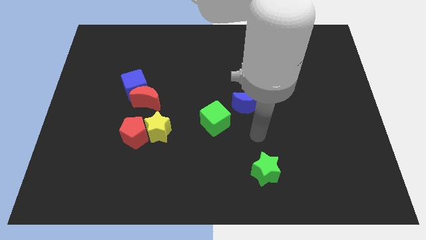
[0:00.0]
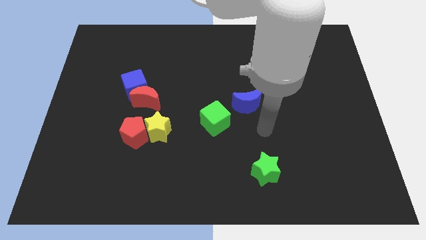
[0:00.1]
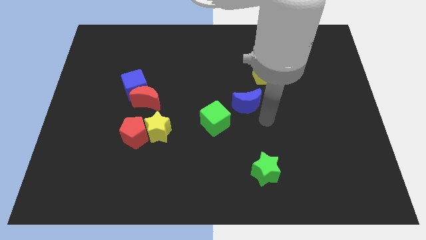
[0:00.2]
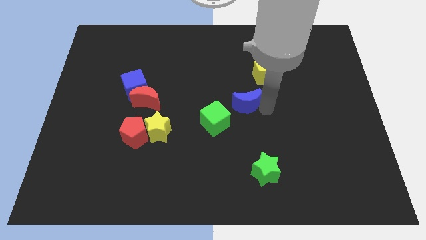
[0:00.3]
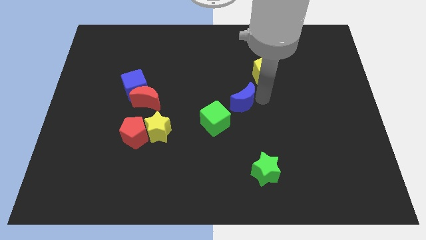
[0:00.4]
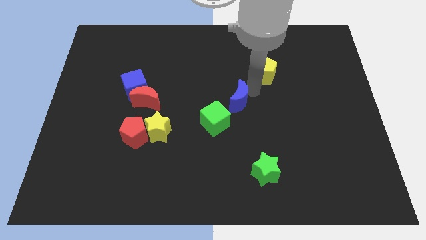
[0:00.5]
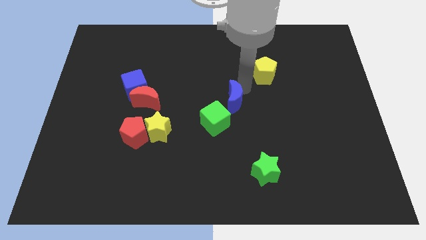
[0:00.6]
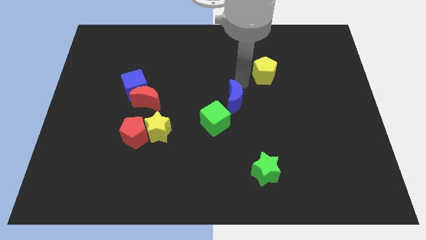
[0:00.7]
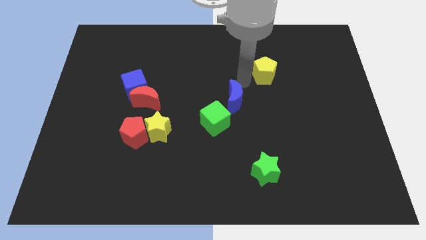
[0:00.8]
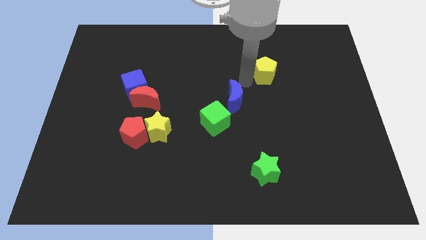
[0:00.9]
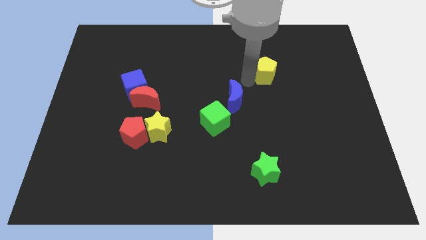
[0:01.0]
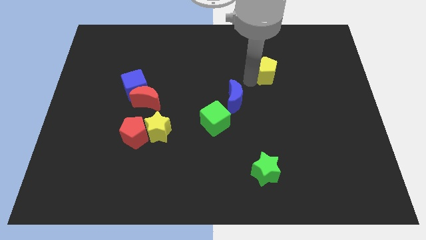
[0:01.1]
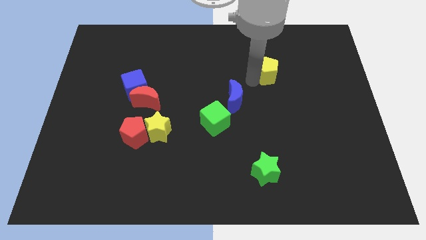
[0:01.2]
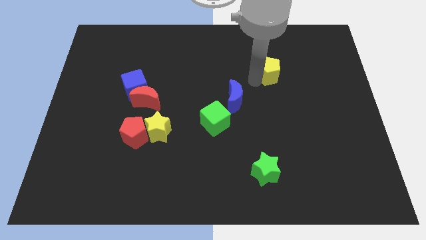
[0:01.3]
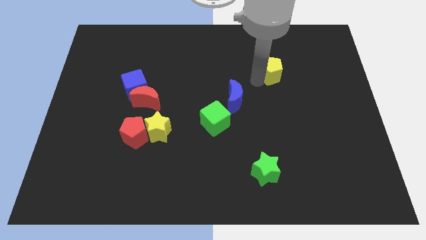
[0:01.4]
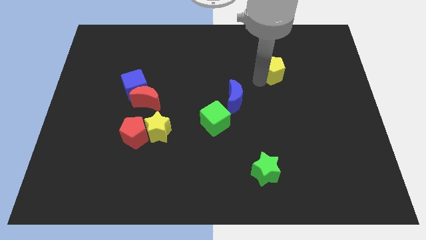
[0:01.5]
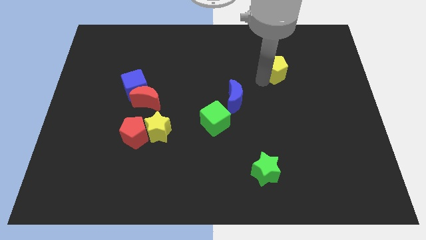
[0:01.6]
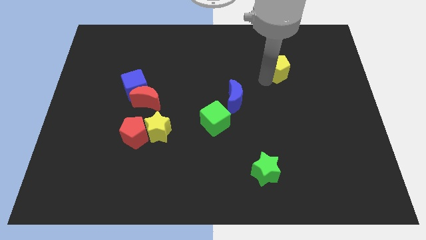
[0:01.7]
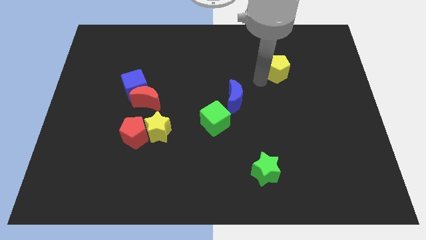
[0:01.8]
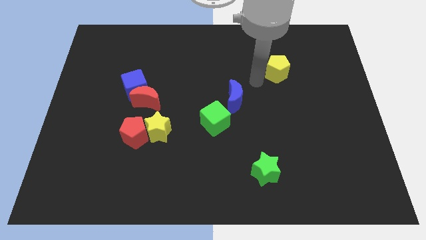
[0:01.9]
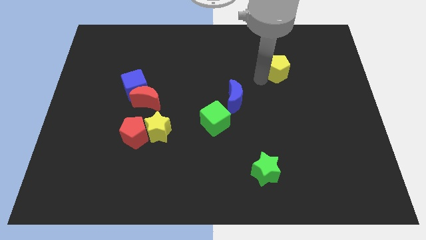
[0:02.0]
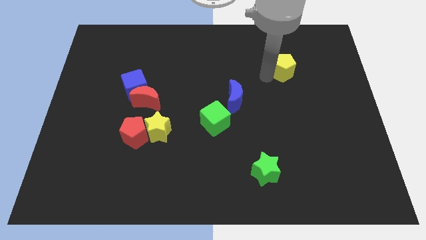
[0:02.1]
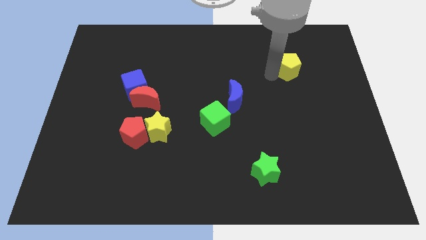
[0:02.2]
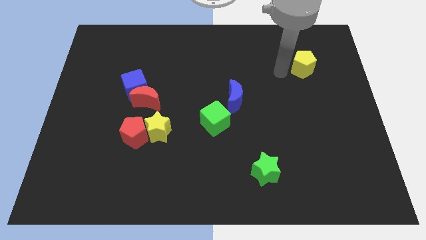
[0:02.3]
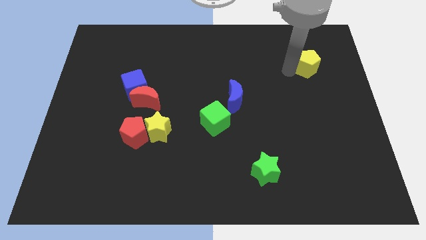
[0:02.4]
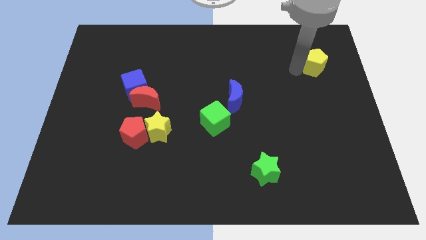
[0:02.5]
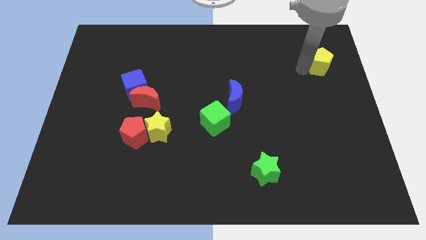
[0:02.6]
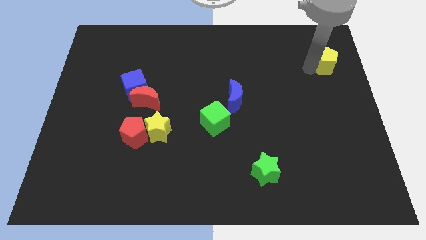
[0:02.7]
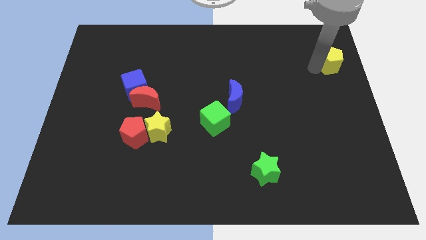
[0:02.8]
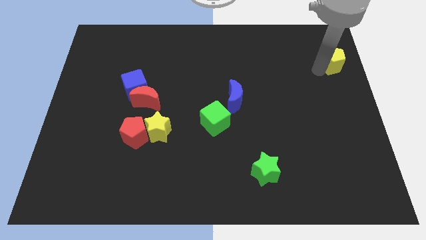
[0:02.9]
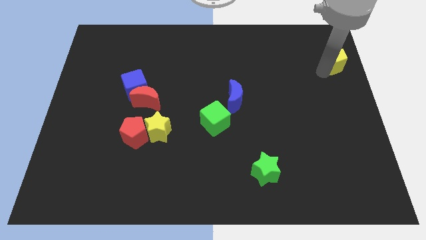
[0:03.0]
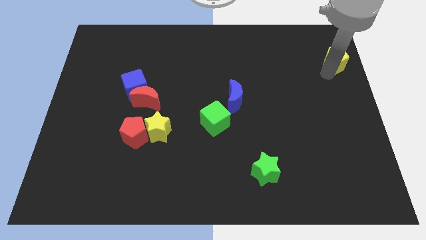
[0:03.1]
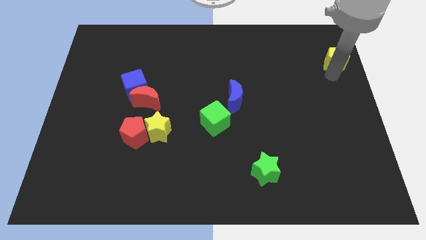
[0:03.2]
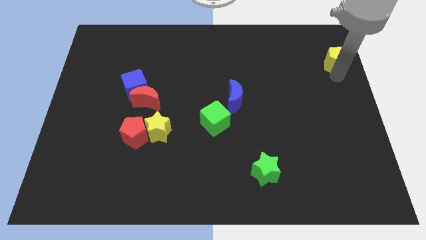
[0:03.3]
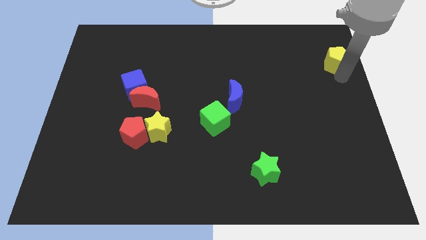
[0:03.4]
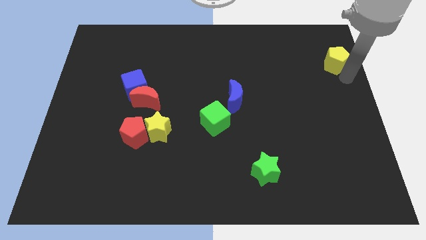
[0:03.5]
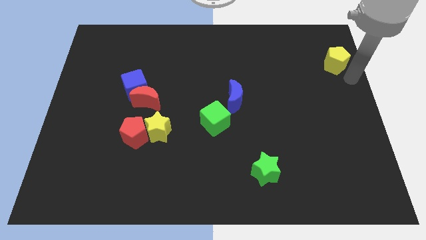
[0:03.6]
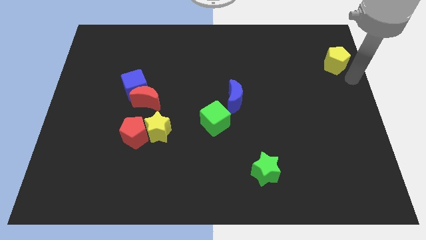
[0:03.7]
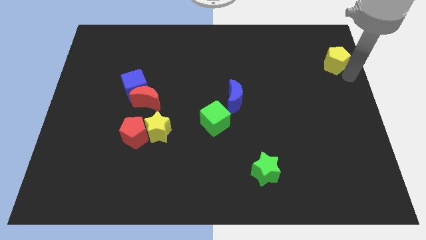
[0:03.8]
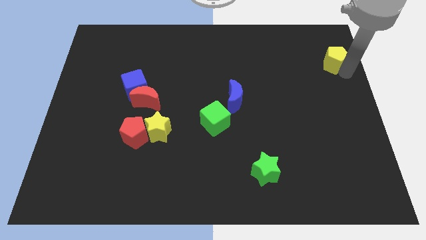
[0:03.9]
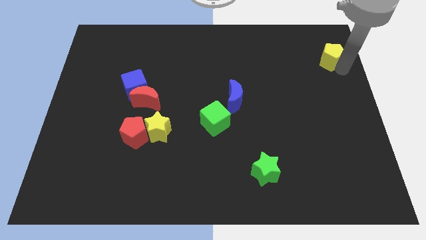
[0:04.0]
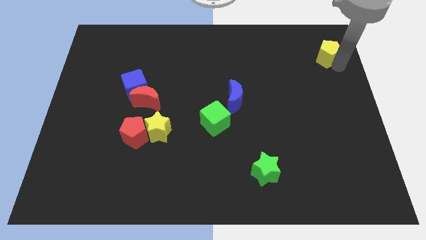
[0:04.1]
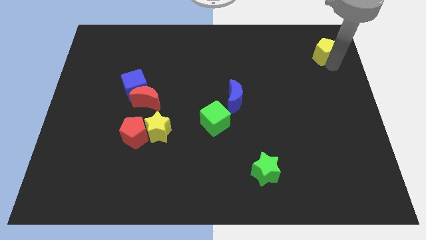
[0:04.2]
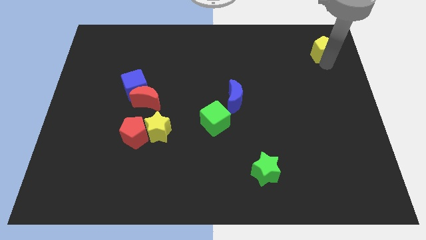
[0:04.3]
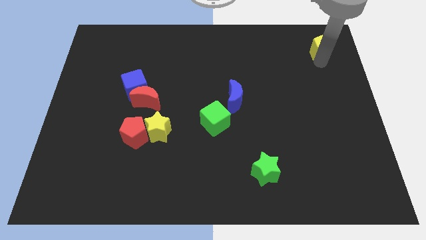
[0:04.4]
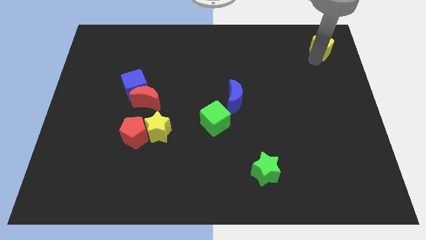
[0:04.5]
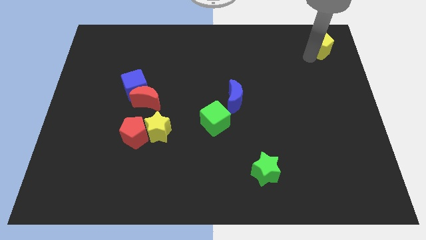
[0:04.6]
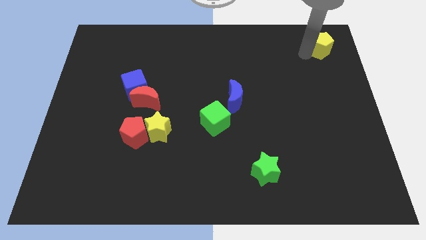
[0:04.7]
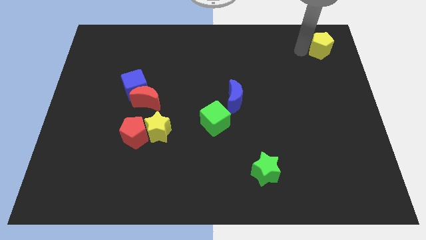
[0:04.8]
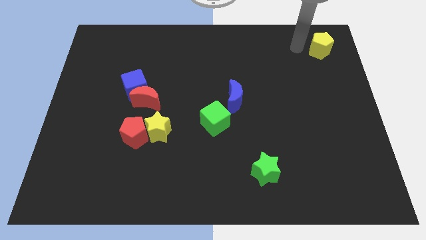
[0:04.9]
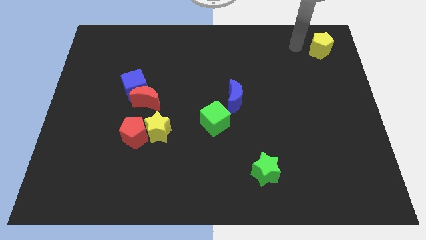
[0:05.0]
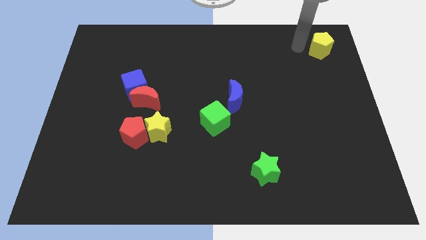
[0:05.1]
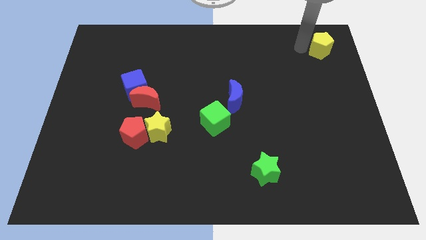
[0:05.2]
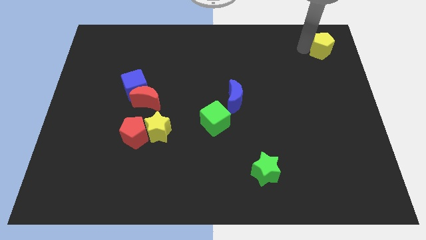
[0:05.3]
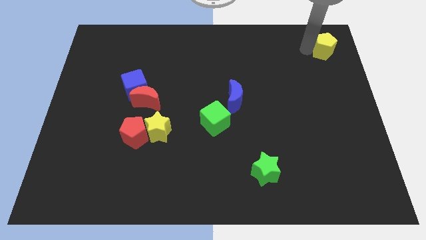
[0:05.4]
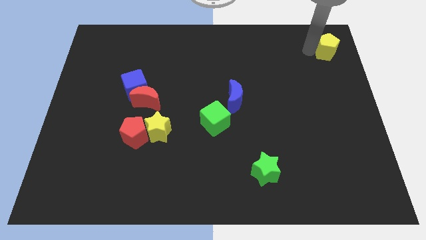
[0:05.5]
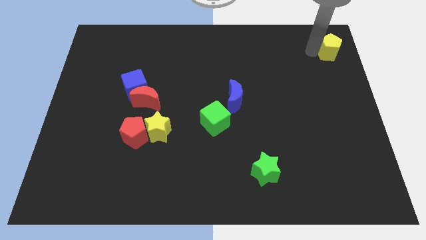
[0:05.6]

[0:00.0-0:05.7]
put the yellow pentagon to the top right of the board
